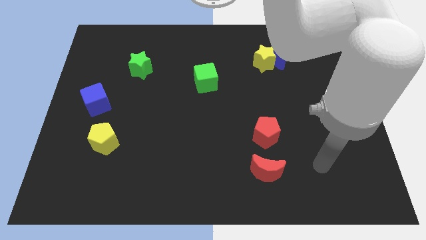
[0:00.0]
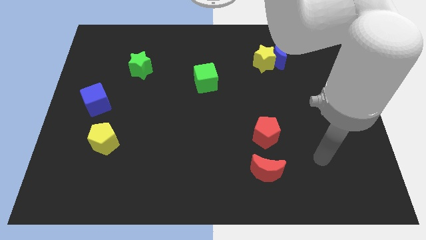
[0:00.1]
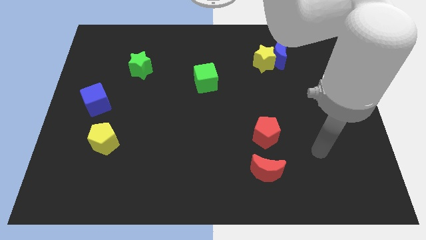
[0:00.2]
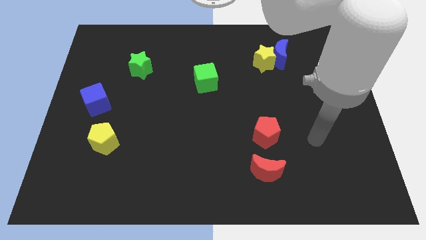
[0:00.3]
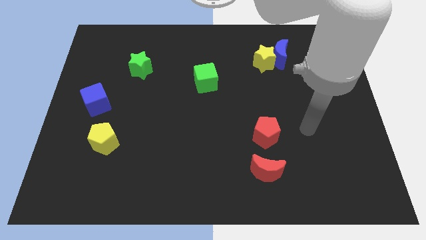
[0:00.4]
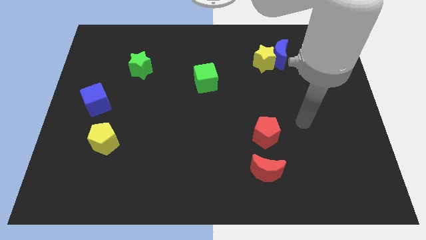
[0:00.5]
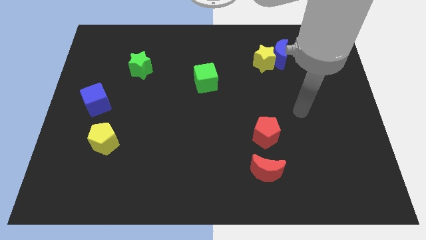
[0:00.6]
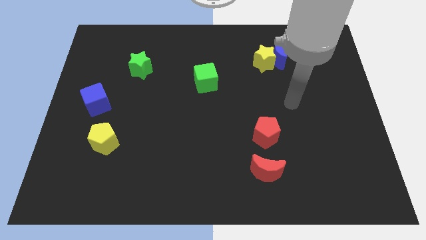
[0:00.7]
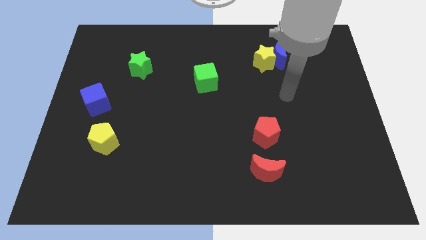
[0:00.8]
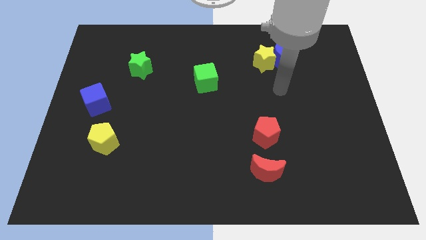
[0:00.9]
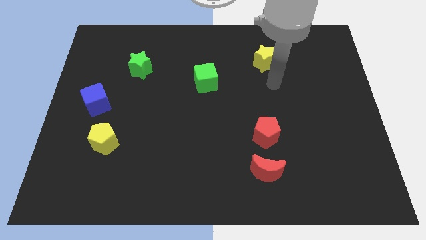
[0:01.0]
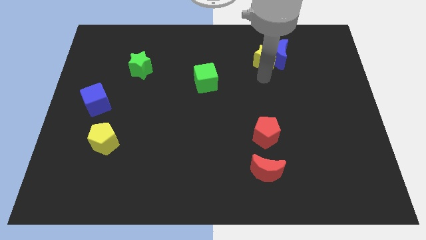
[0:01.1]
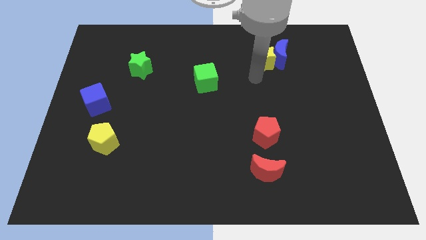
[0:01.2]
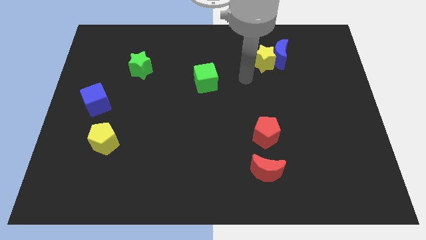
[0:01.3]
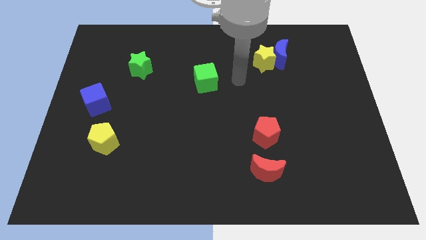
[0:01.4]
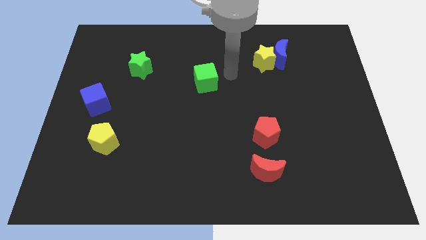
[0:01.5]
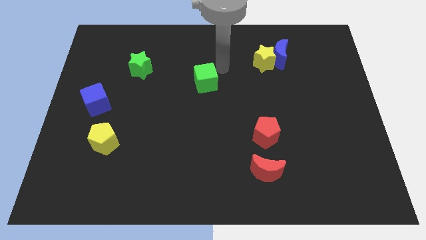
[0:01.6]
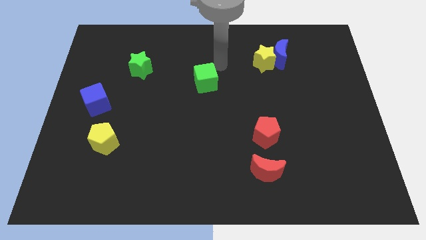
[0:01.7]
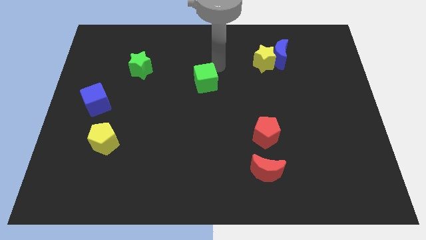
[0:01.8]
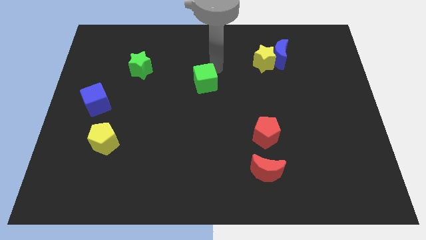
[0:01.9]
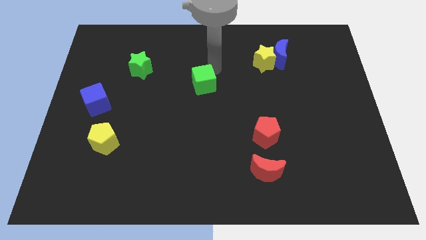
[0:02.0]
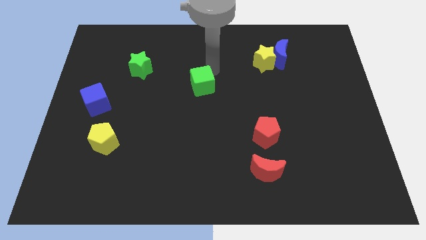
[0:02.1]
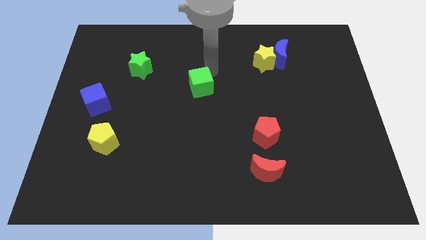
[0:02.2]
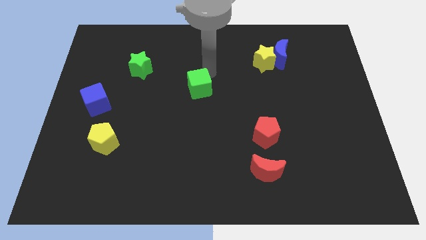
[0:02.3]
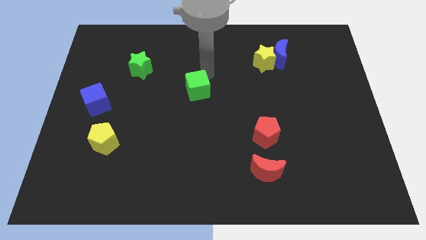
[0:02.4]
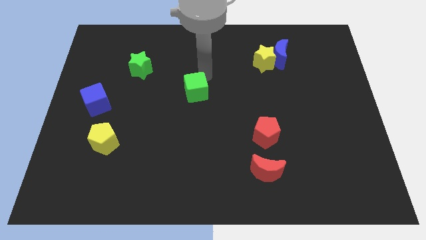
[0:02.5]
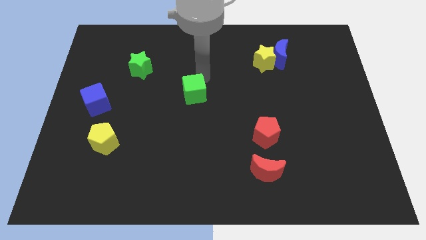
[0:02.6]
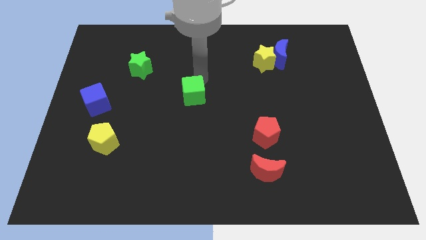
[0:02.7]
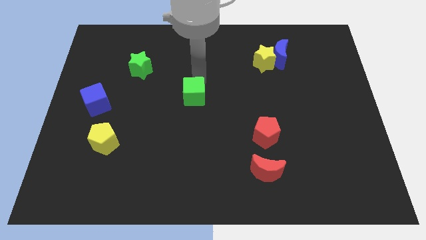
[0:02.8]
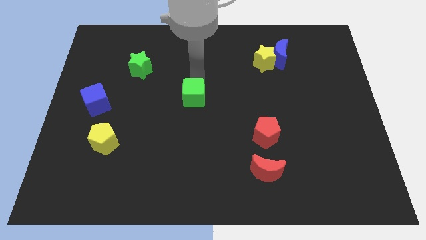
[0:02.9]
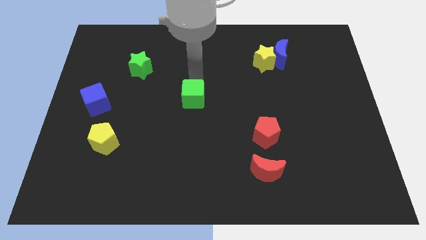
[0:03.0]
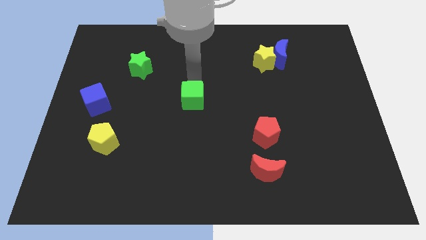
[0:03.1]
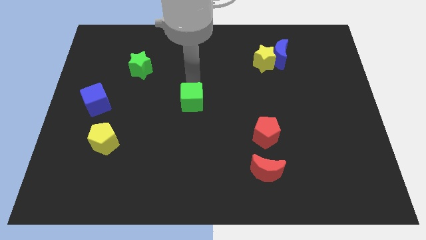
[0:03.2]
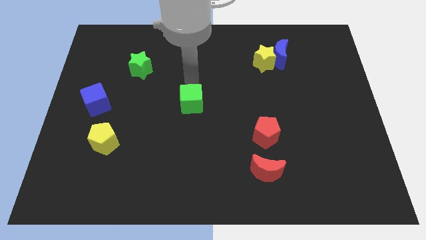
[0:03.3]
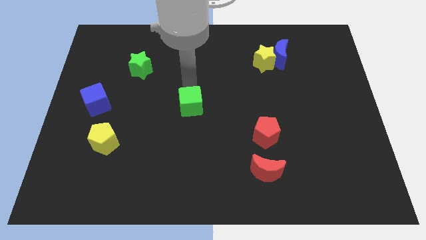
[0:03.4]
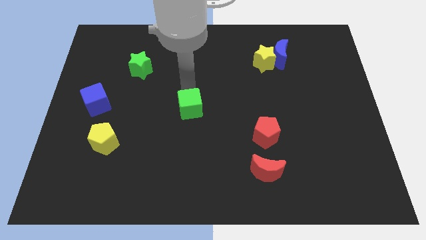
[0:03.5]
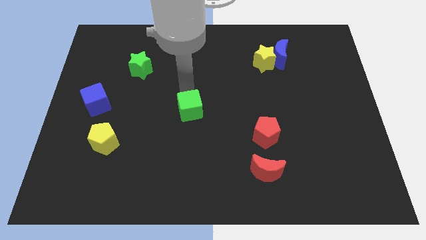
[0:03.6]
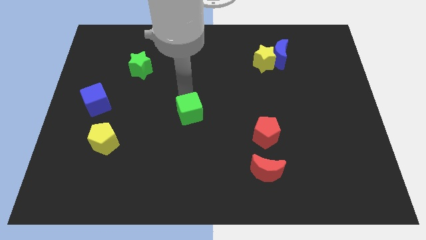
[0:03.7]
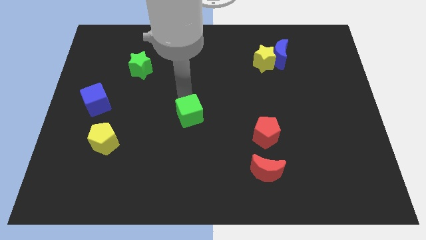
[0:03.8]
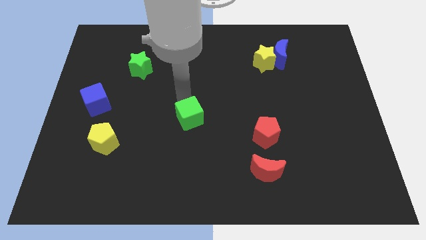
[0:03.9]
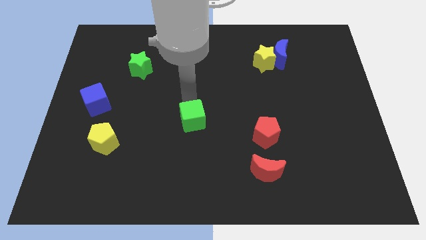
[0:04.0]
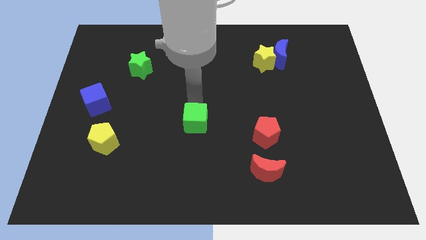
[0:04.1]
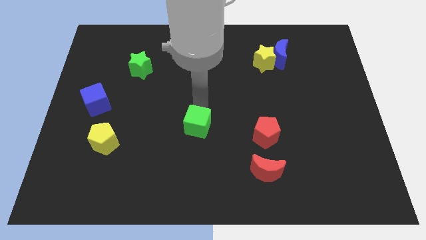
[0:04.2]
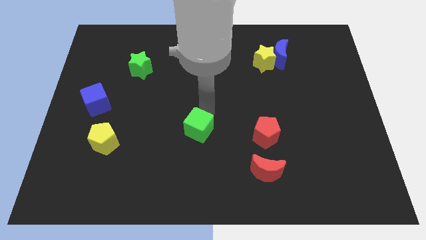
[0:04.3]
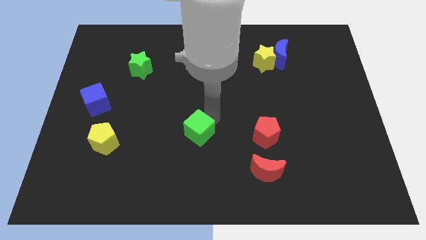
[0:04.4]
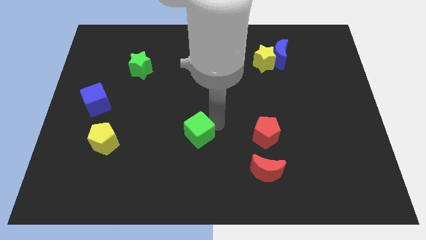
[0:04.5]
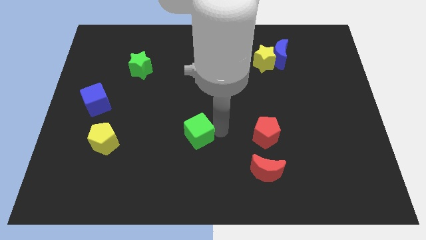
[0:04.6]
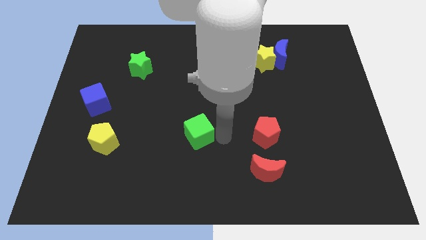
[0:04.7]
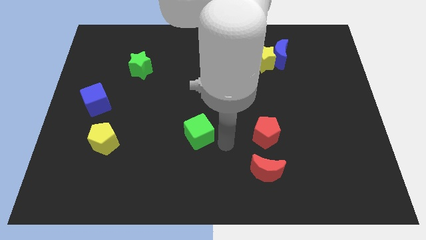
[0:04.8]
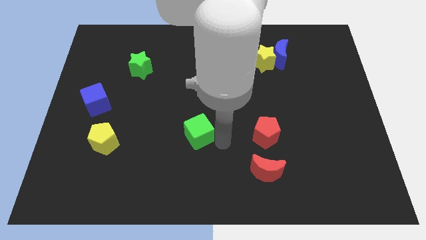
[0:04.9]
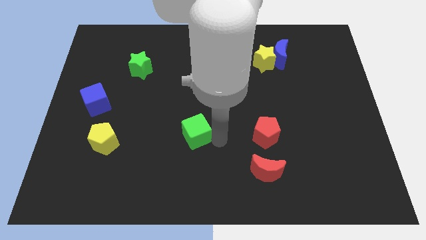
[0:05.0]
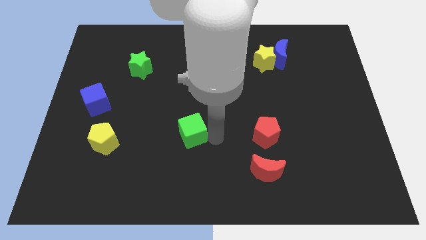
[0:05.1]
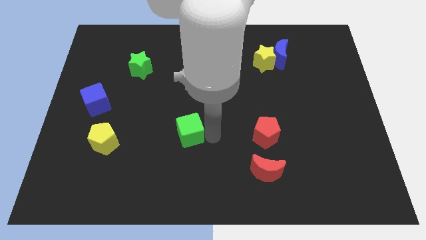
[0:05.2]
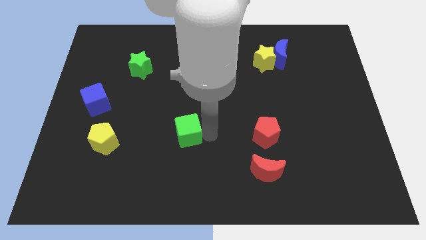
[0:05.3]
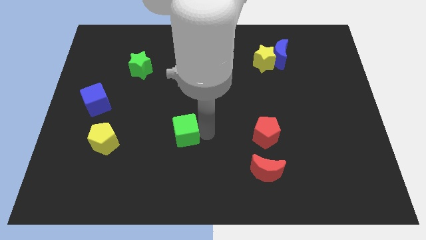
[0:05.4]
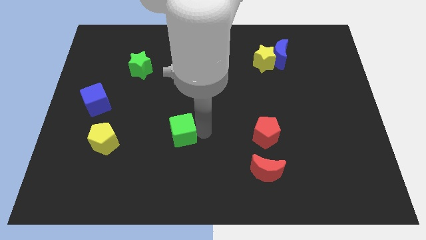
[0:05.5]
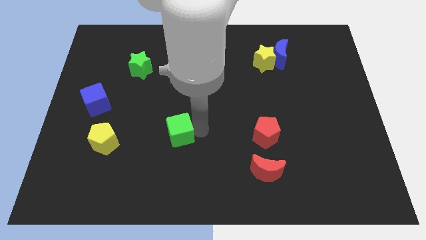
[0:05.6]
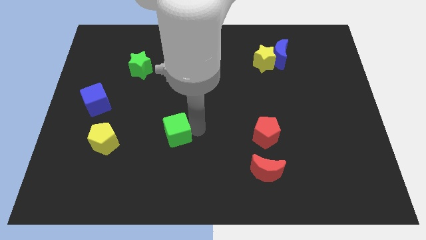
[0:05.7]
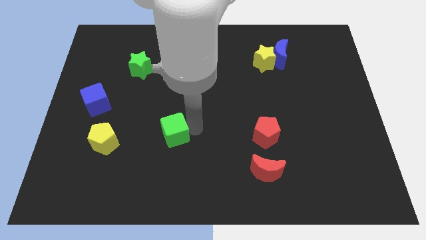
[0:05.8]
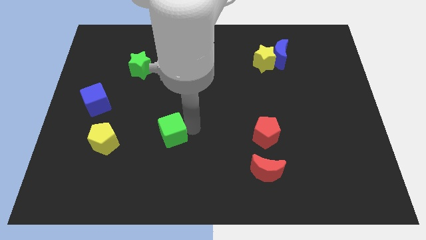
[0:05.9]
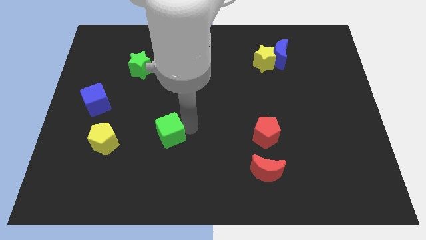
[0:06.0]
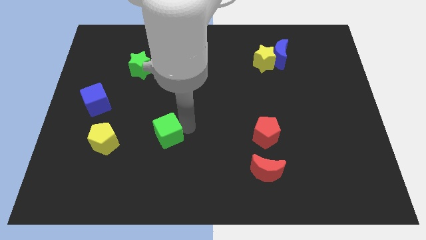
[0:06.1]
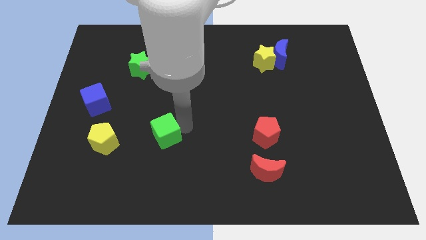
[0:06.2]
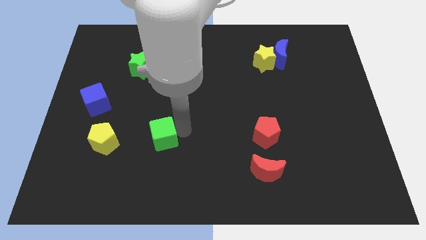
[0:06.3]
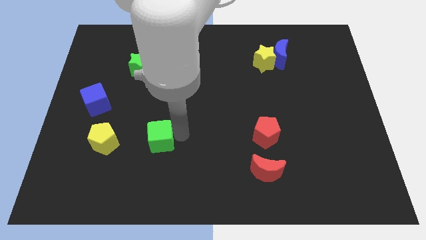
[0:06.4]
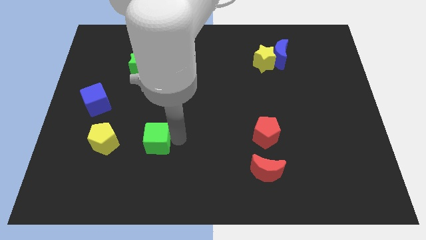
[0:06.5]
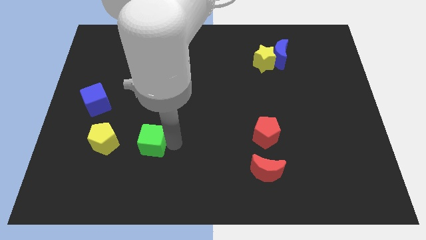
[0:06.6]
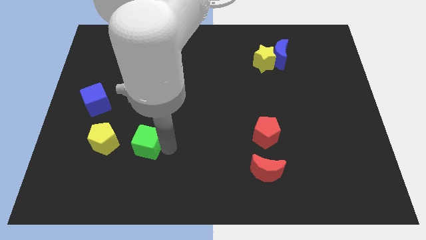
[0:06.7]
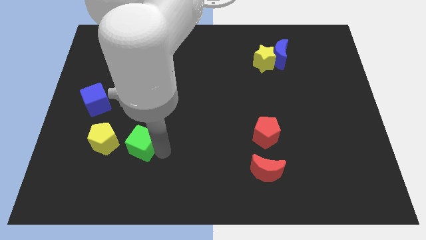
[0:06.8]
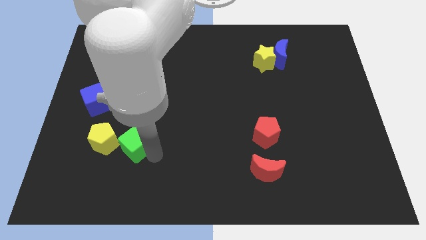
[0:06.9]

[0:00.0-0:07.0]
push the green cube to the bottom right side of the yellow pentagon
